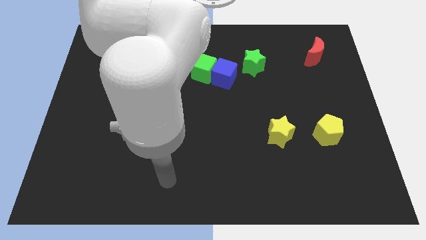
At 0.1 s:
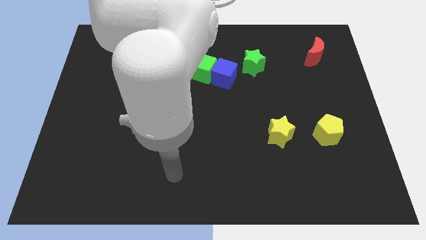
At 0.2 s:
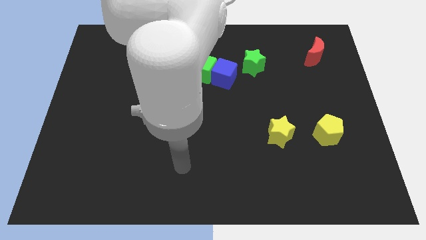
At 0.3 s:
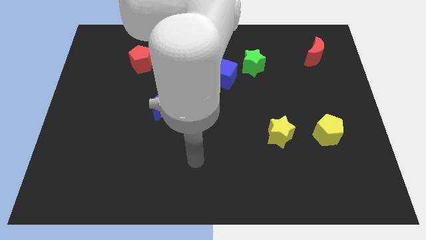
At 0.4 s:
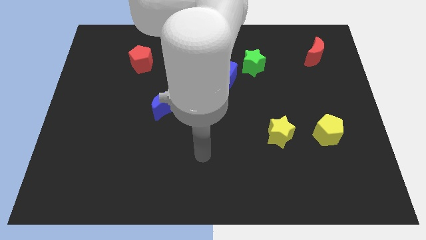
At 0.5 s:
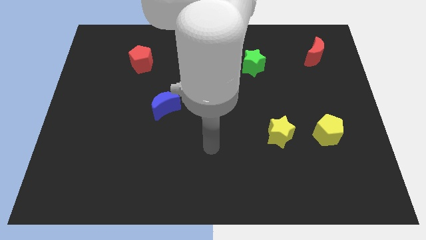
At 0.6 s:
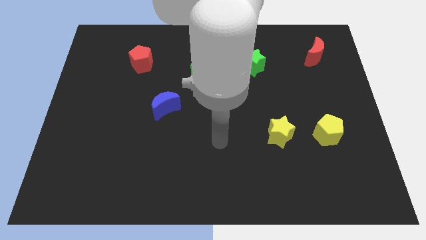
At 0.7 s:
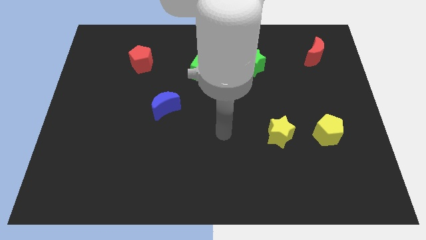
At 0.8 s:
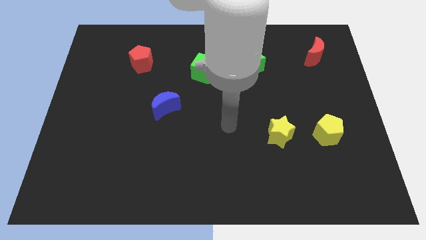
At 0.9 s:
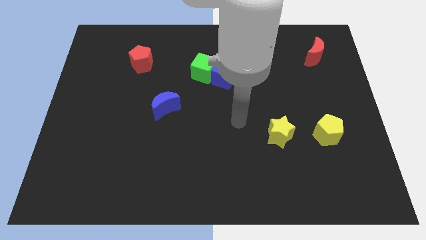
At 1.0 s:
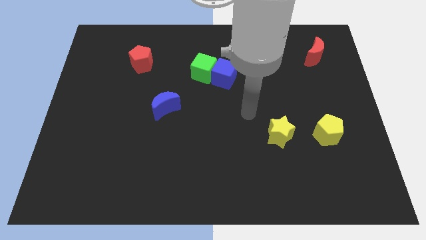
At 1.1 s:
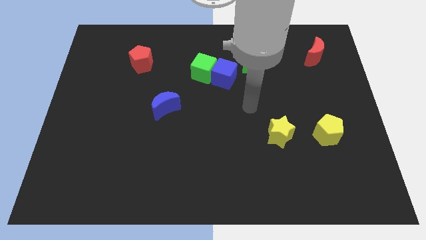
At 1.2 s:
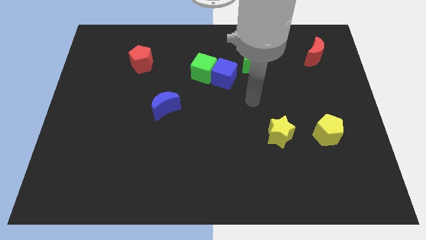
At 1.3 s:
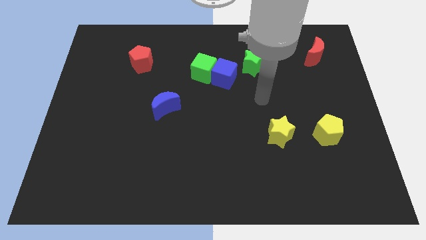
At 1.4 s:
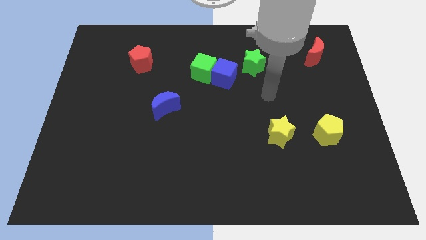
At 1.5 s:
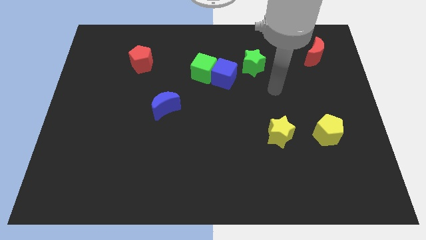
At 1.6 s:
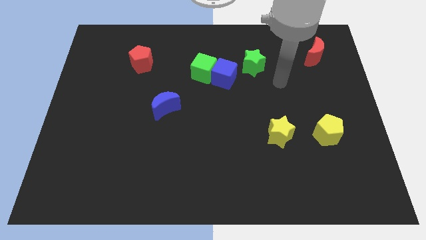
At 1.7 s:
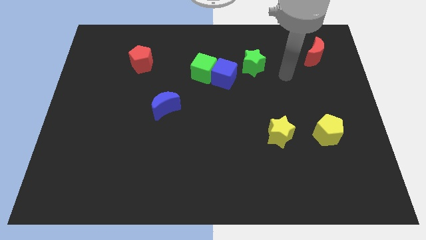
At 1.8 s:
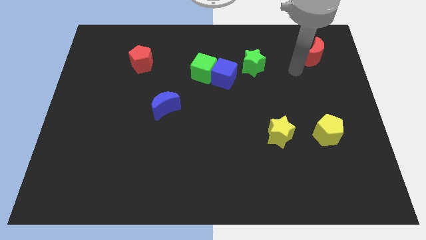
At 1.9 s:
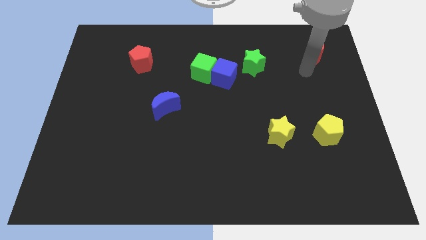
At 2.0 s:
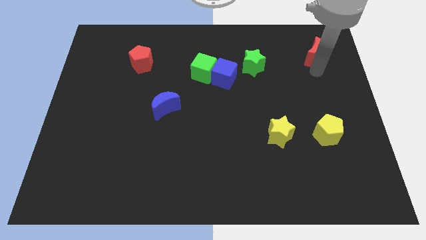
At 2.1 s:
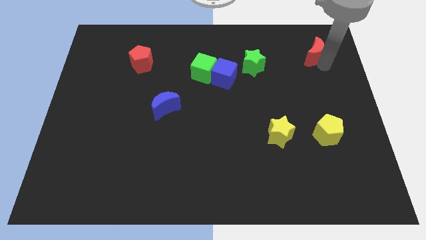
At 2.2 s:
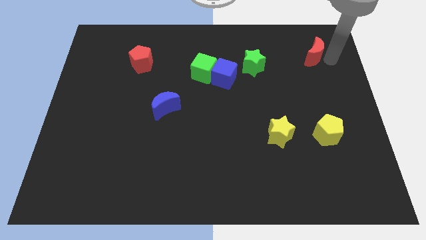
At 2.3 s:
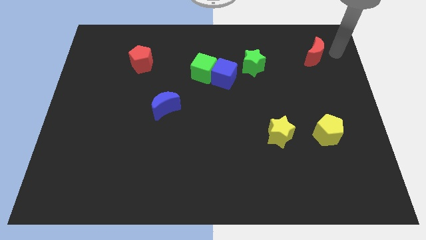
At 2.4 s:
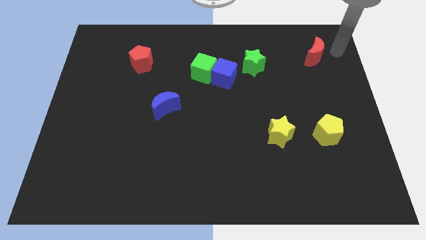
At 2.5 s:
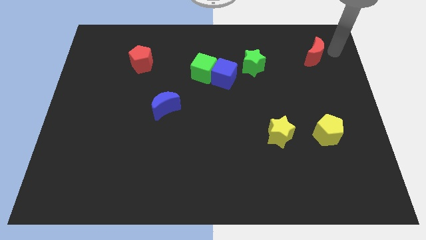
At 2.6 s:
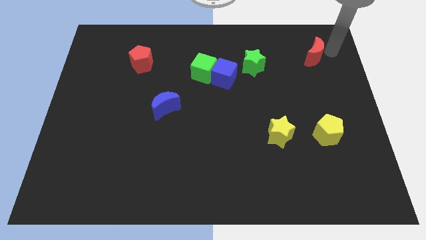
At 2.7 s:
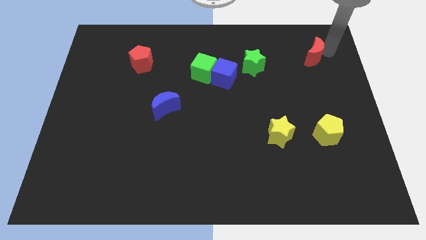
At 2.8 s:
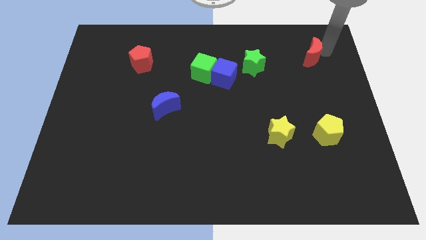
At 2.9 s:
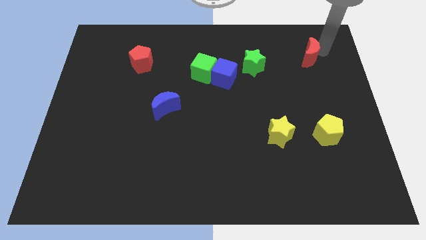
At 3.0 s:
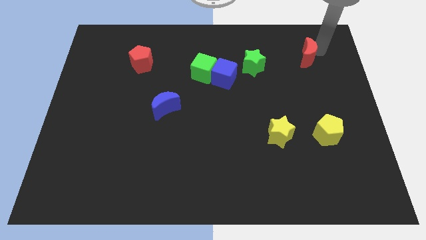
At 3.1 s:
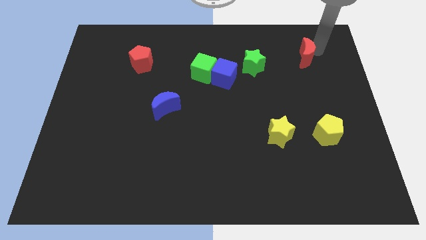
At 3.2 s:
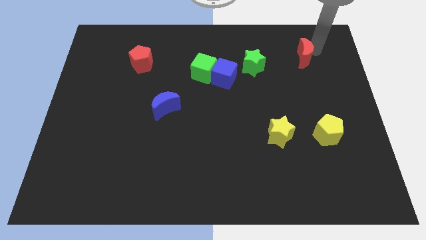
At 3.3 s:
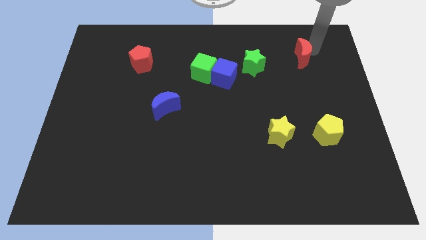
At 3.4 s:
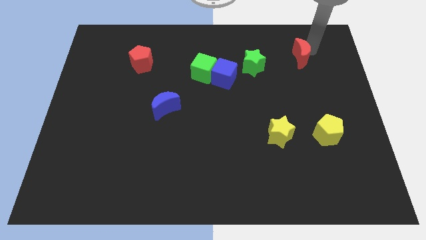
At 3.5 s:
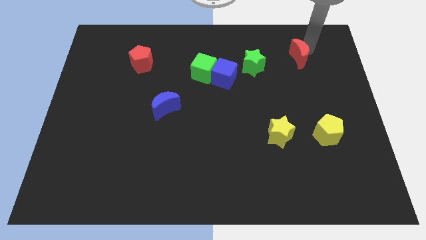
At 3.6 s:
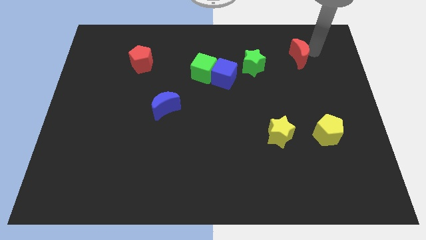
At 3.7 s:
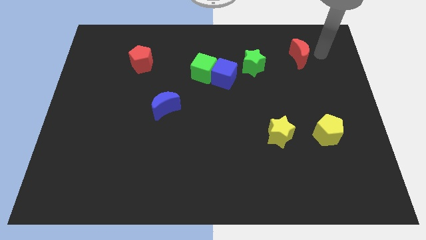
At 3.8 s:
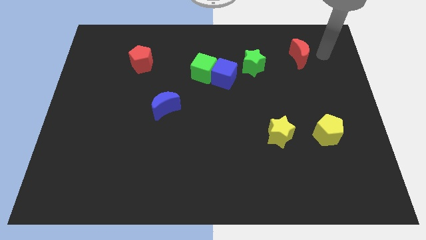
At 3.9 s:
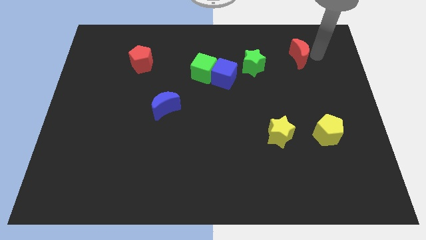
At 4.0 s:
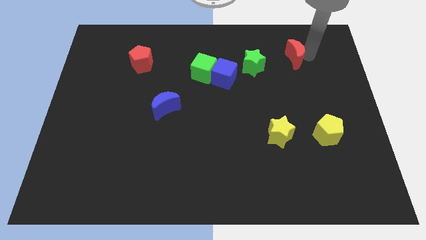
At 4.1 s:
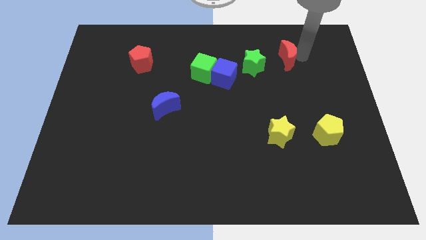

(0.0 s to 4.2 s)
slightly move the red moon left

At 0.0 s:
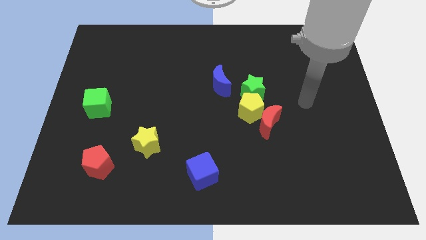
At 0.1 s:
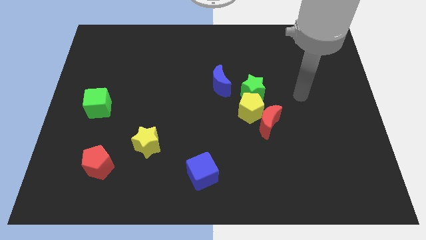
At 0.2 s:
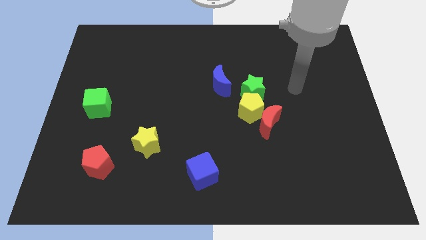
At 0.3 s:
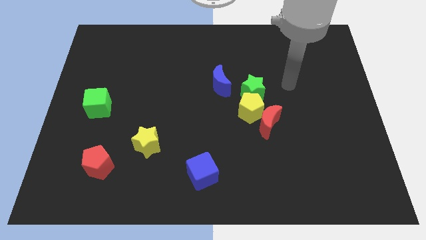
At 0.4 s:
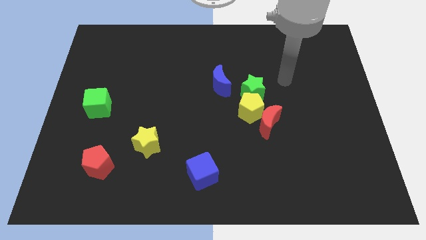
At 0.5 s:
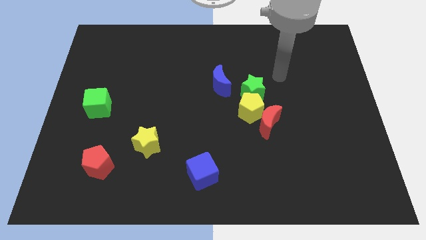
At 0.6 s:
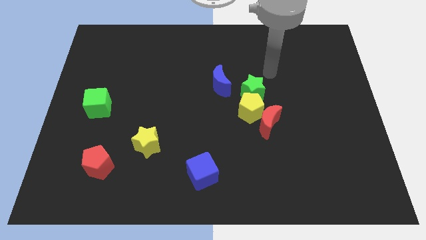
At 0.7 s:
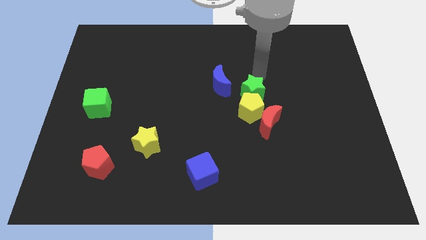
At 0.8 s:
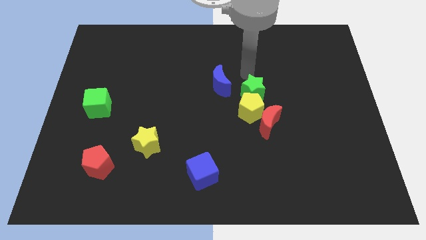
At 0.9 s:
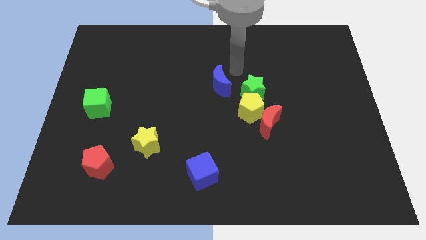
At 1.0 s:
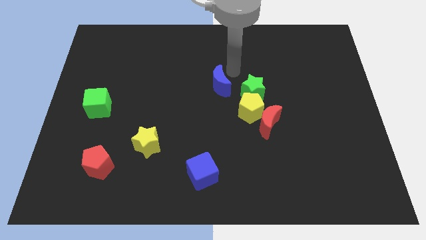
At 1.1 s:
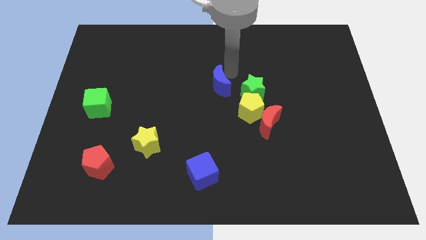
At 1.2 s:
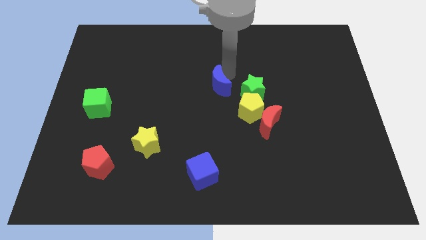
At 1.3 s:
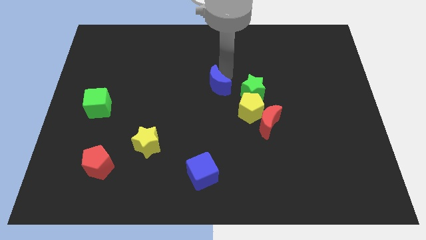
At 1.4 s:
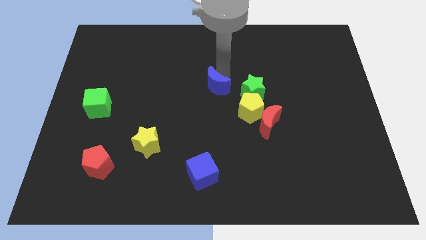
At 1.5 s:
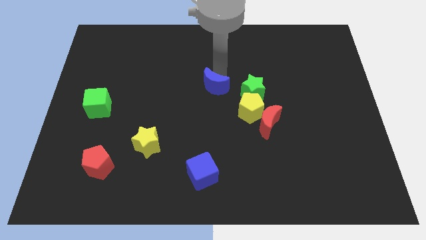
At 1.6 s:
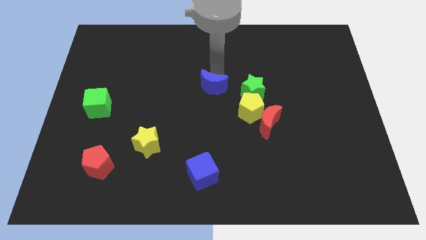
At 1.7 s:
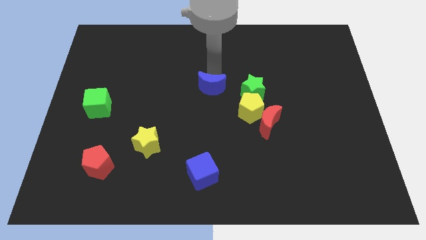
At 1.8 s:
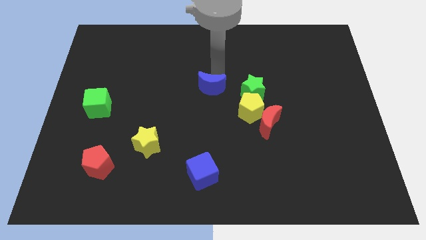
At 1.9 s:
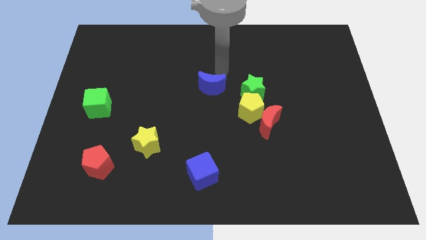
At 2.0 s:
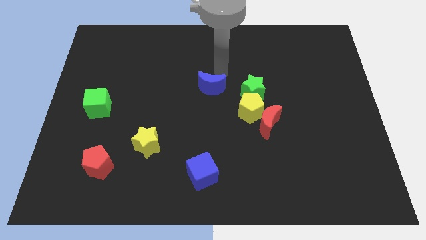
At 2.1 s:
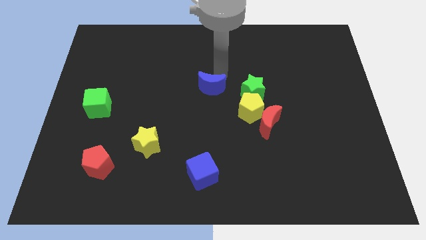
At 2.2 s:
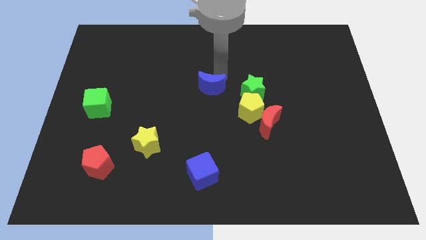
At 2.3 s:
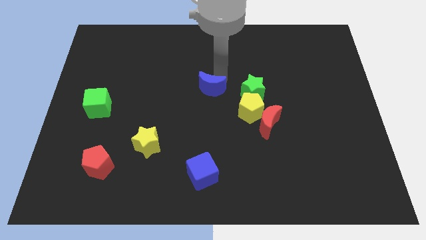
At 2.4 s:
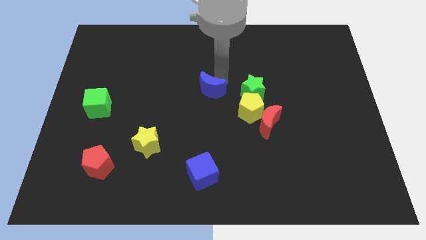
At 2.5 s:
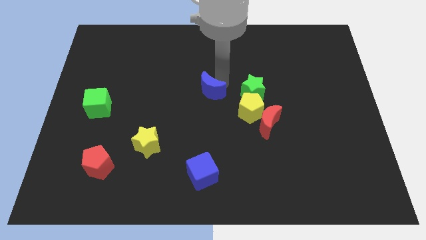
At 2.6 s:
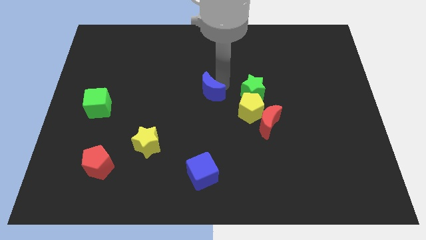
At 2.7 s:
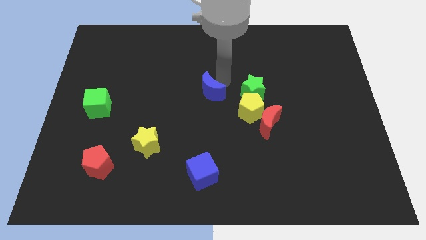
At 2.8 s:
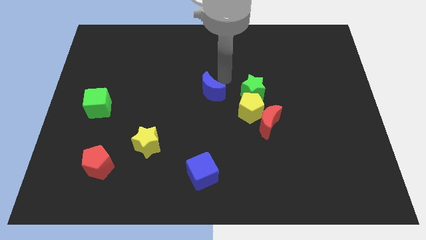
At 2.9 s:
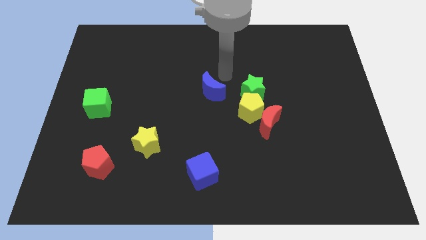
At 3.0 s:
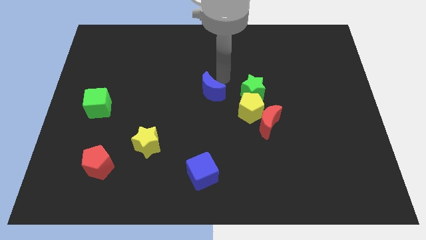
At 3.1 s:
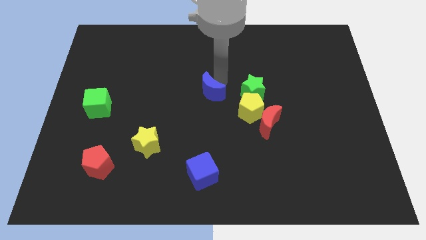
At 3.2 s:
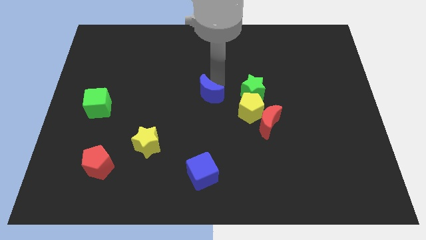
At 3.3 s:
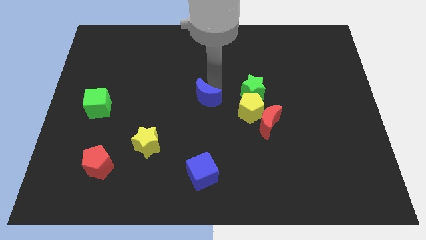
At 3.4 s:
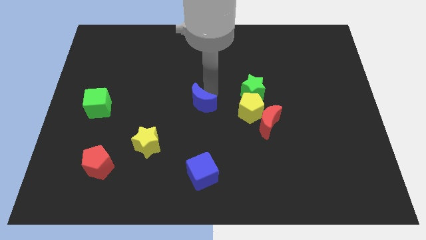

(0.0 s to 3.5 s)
push the blue moon down and left diagonally slightly

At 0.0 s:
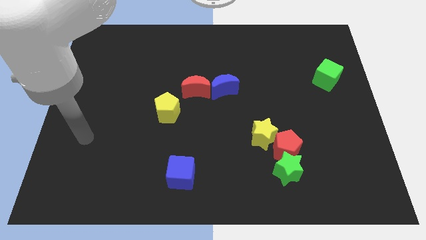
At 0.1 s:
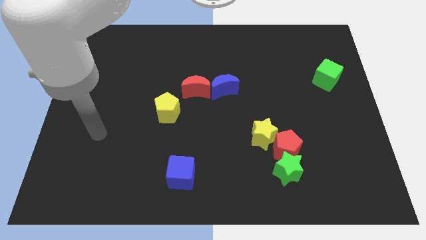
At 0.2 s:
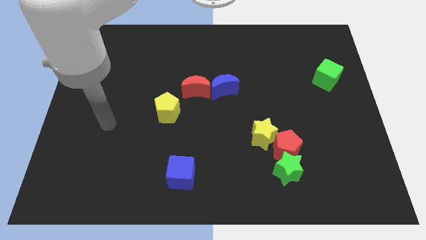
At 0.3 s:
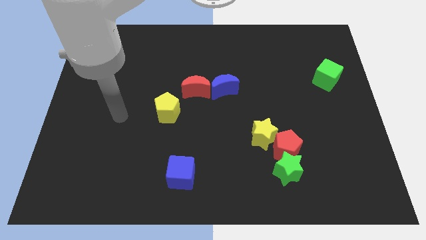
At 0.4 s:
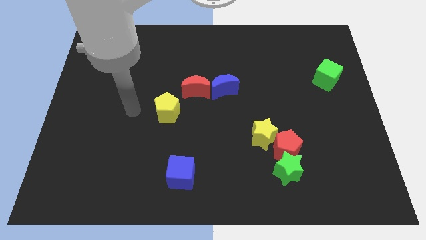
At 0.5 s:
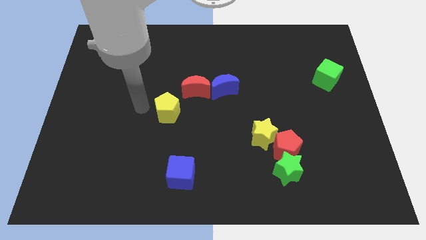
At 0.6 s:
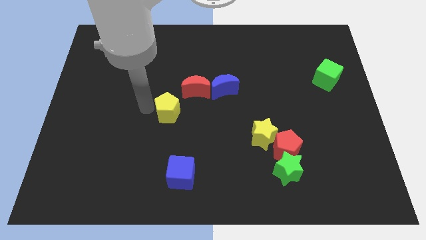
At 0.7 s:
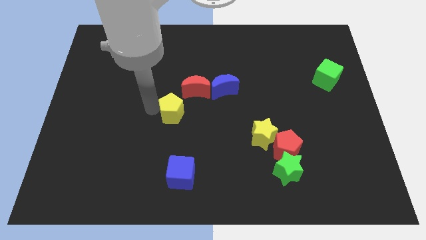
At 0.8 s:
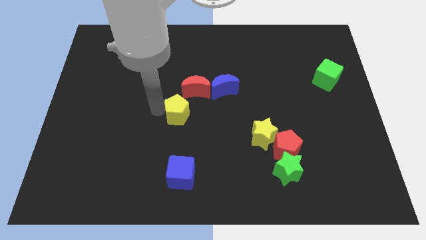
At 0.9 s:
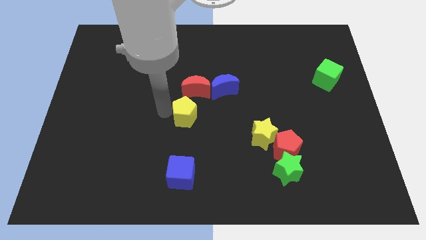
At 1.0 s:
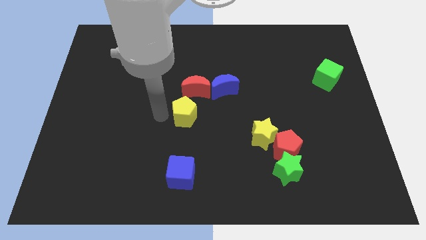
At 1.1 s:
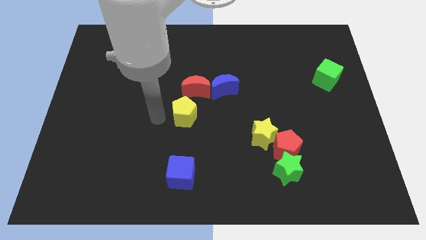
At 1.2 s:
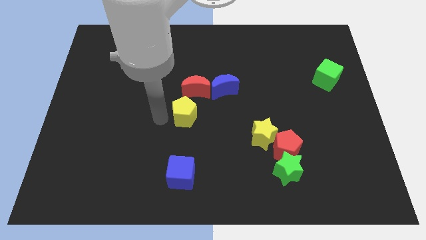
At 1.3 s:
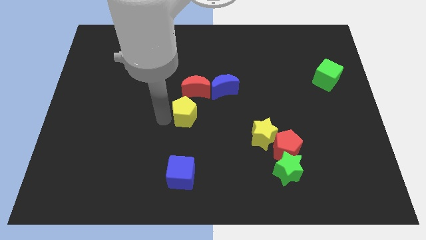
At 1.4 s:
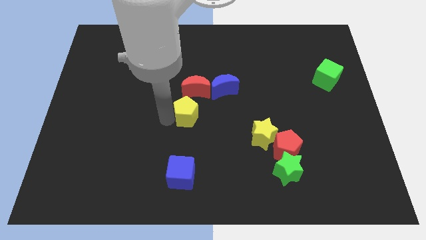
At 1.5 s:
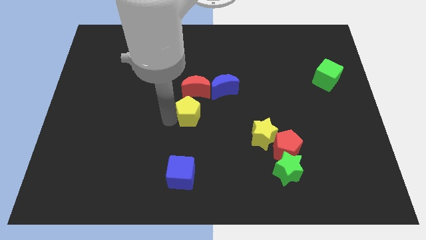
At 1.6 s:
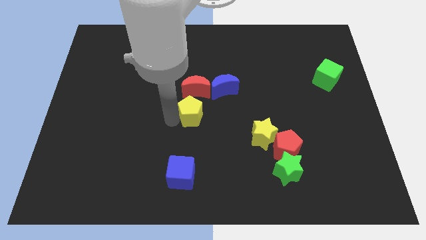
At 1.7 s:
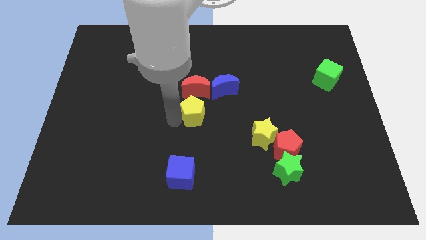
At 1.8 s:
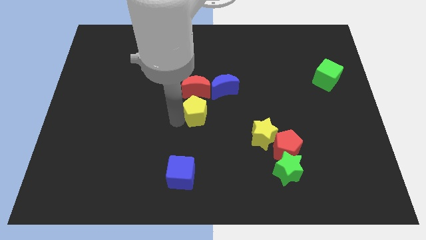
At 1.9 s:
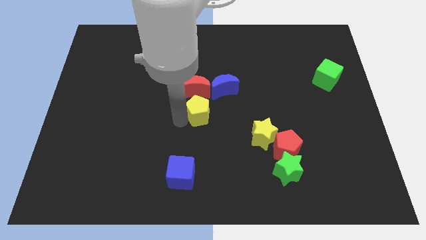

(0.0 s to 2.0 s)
move the yellow pentagon slightly to the right
